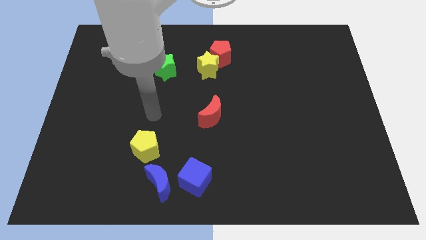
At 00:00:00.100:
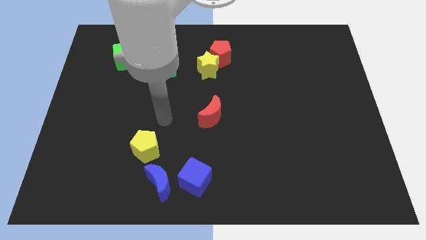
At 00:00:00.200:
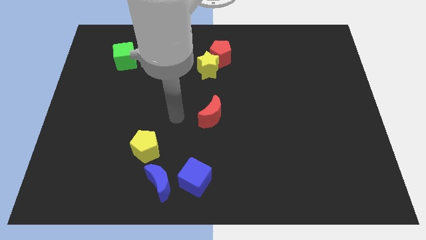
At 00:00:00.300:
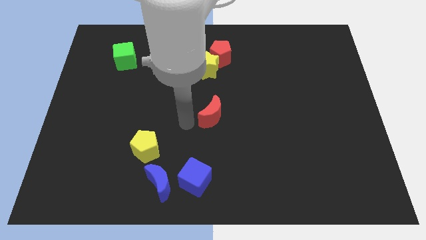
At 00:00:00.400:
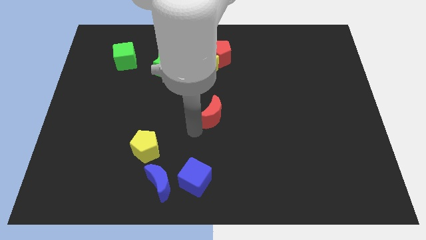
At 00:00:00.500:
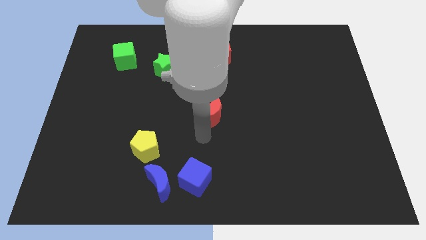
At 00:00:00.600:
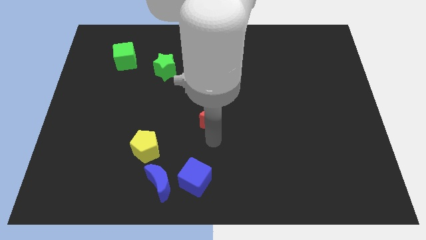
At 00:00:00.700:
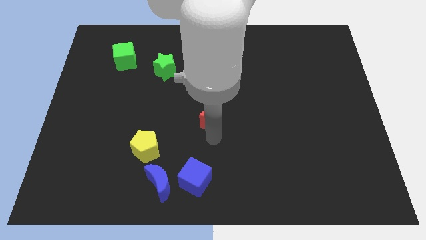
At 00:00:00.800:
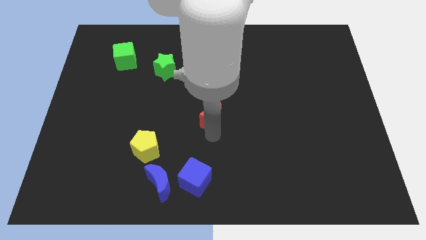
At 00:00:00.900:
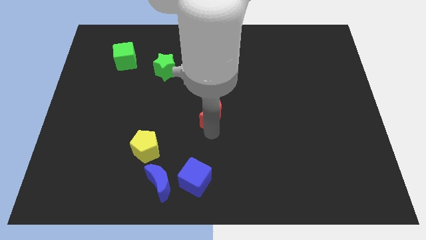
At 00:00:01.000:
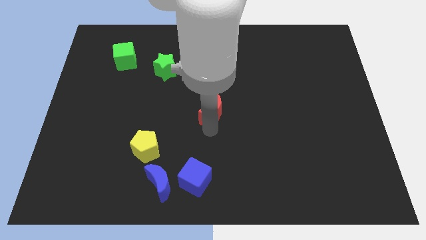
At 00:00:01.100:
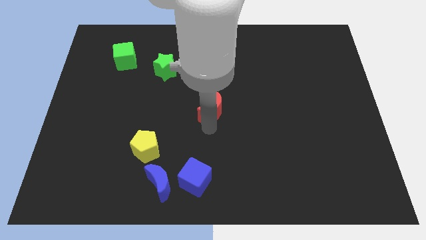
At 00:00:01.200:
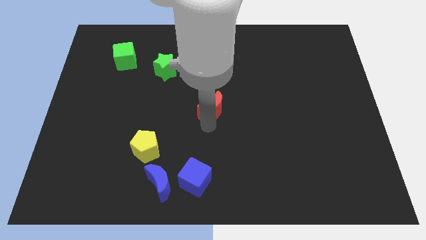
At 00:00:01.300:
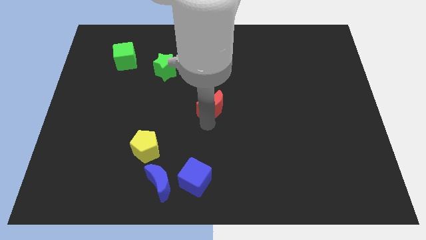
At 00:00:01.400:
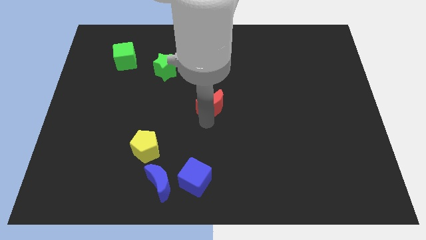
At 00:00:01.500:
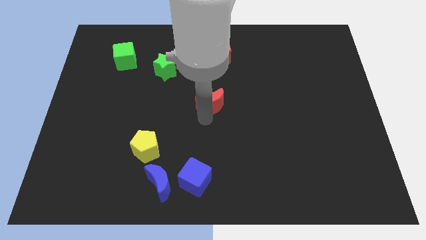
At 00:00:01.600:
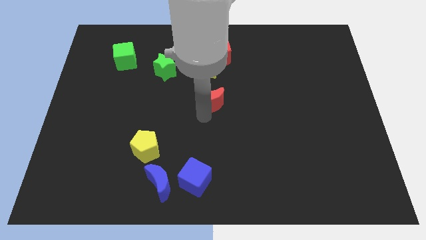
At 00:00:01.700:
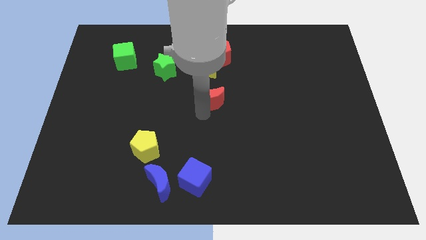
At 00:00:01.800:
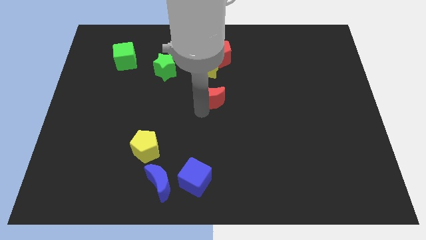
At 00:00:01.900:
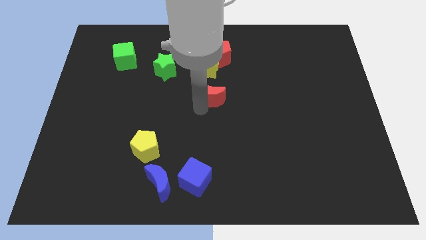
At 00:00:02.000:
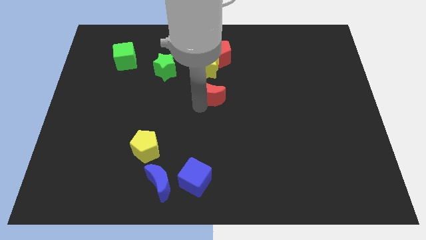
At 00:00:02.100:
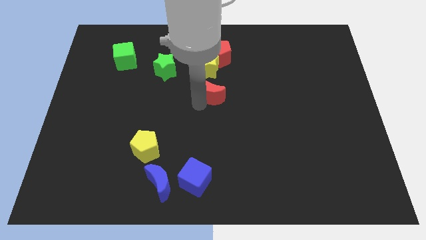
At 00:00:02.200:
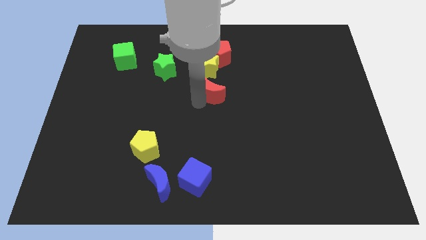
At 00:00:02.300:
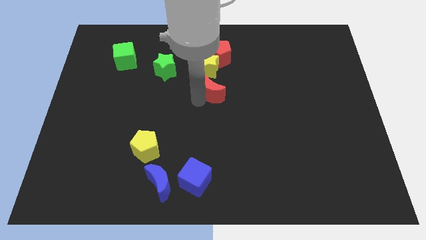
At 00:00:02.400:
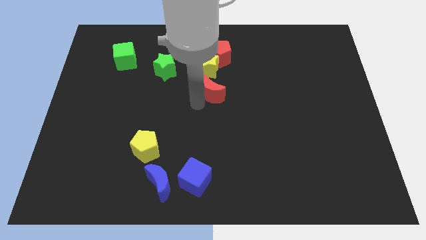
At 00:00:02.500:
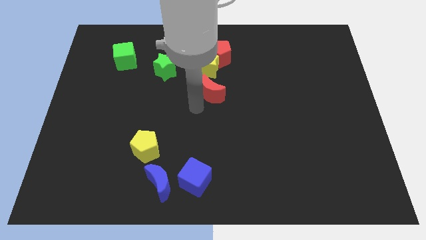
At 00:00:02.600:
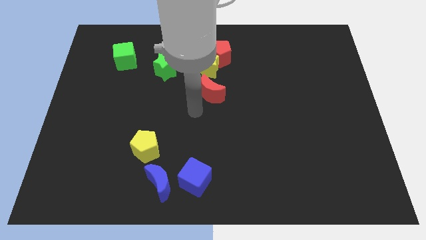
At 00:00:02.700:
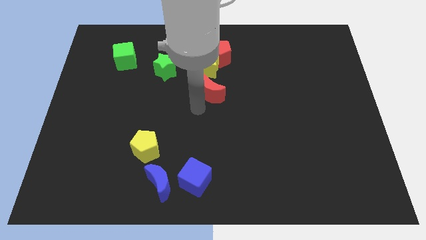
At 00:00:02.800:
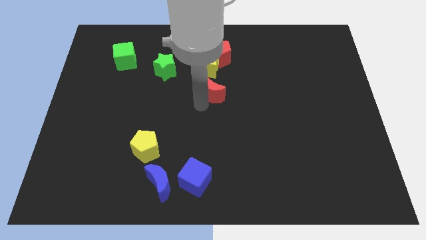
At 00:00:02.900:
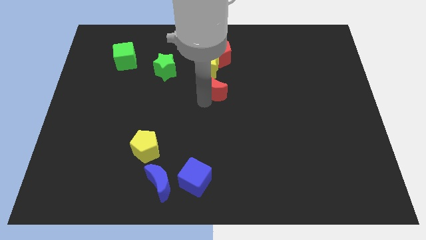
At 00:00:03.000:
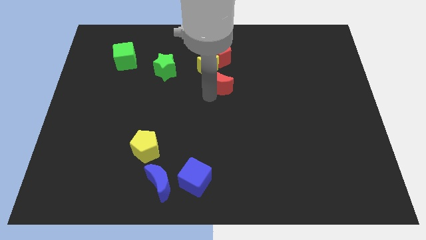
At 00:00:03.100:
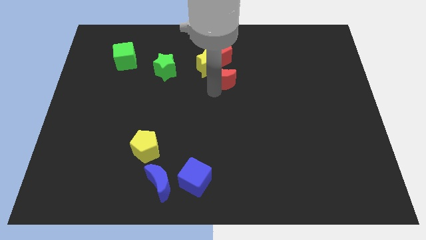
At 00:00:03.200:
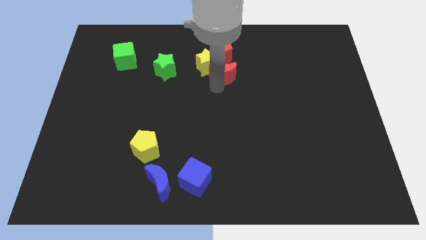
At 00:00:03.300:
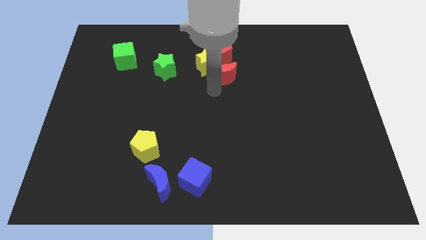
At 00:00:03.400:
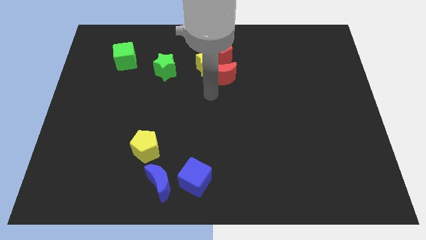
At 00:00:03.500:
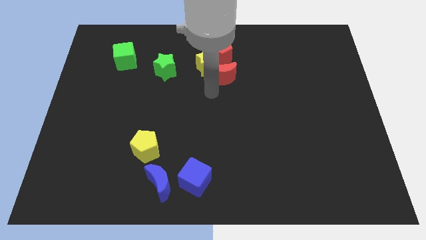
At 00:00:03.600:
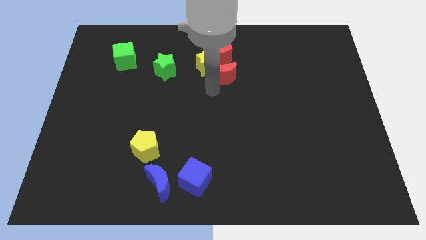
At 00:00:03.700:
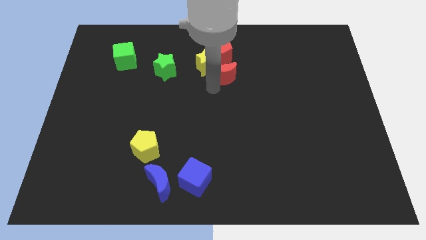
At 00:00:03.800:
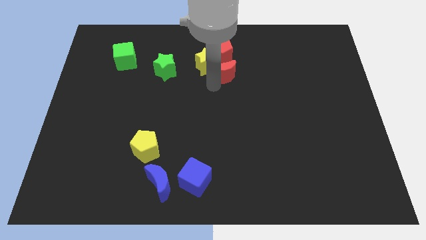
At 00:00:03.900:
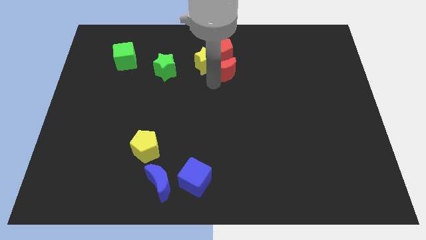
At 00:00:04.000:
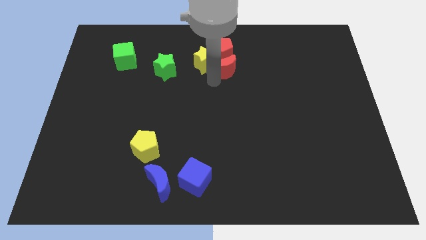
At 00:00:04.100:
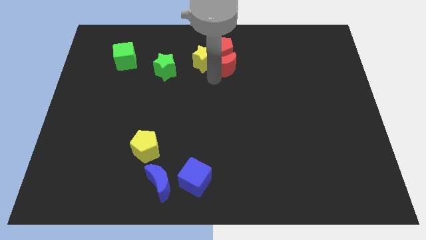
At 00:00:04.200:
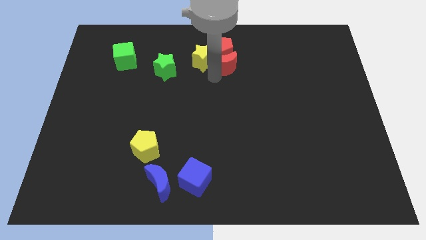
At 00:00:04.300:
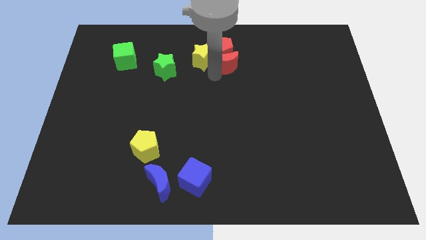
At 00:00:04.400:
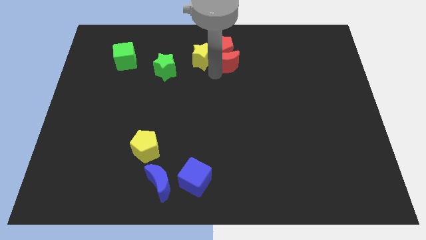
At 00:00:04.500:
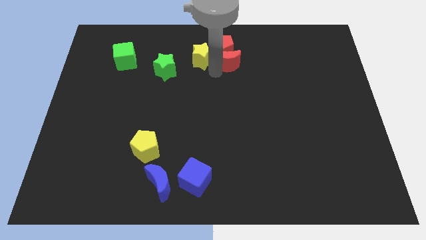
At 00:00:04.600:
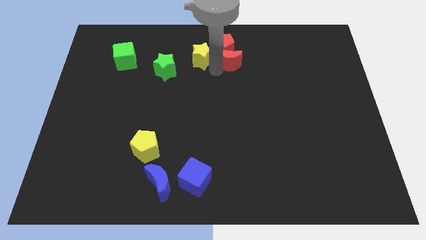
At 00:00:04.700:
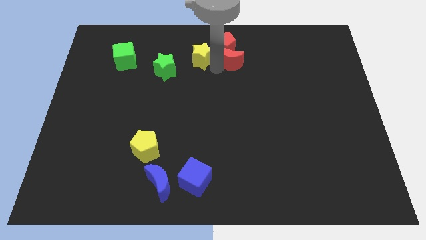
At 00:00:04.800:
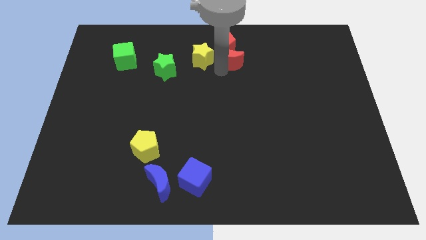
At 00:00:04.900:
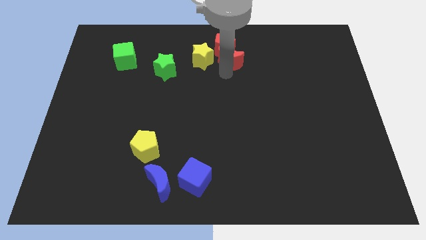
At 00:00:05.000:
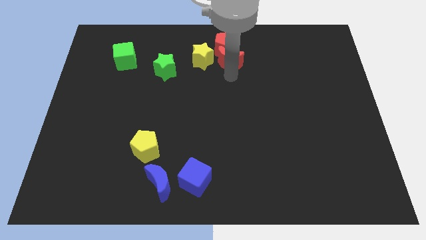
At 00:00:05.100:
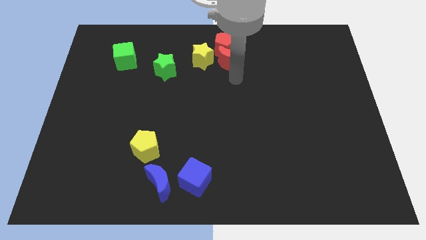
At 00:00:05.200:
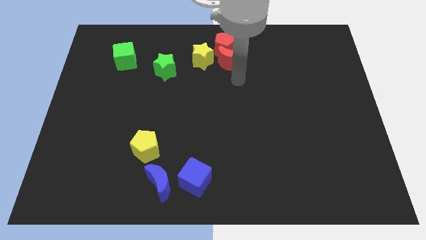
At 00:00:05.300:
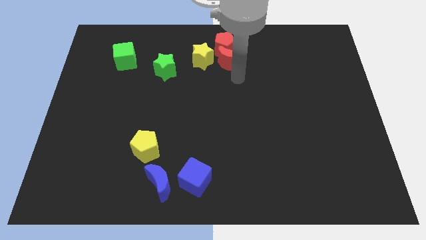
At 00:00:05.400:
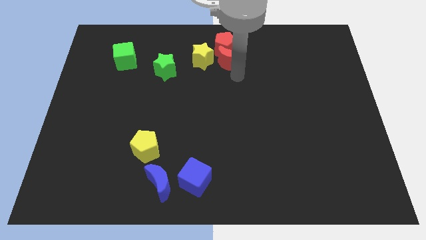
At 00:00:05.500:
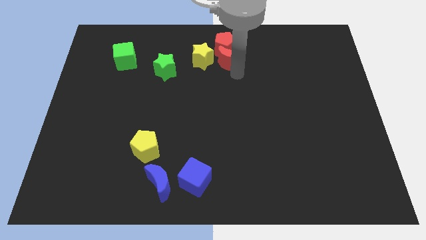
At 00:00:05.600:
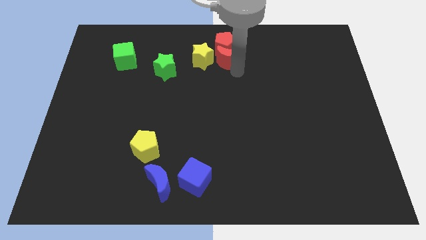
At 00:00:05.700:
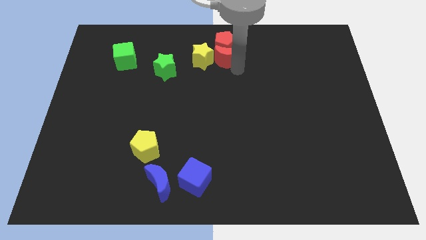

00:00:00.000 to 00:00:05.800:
slide the red moon to the top right side of the yellow star

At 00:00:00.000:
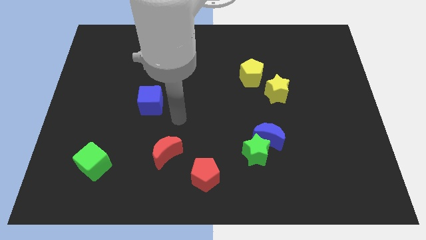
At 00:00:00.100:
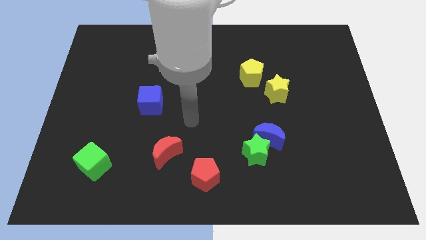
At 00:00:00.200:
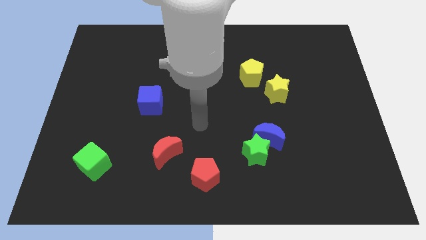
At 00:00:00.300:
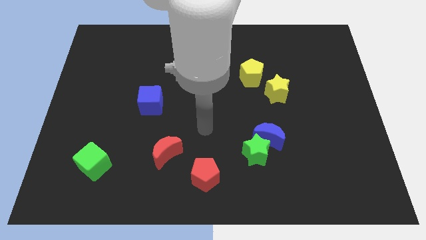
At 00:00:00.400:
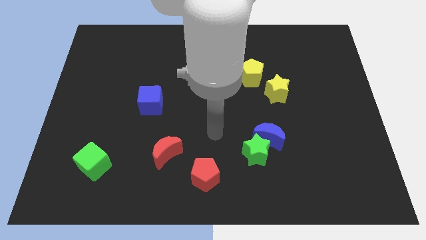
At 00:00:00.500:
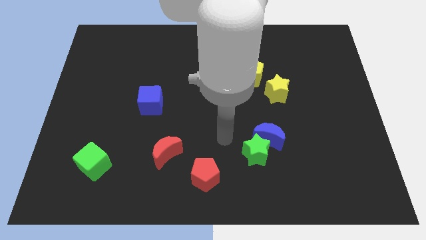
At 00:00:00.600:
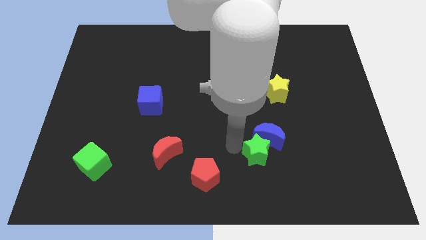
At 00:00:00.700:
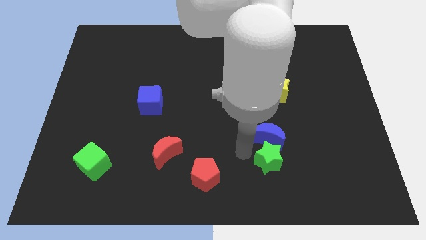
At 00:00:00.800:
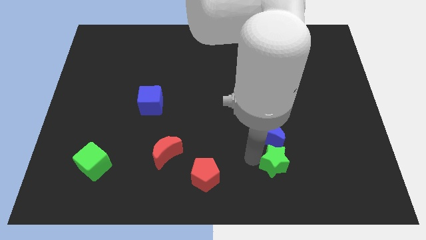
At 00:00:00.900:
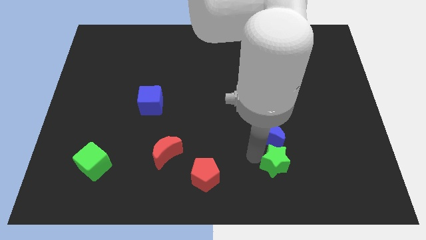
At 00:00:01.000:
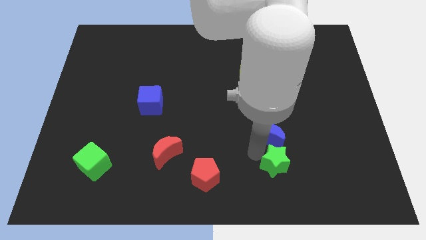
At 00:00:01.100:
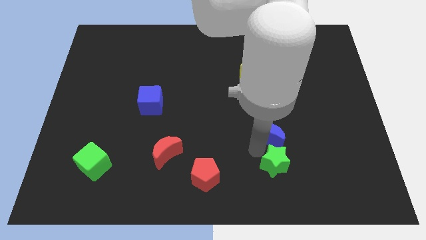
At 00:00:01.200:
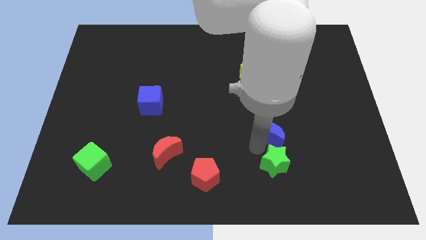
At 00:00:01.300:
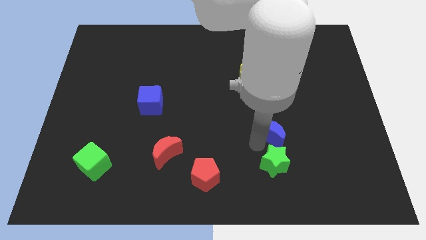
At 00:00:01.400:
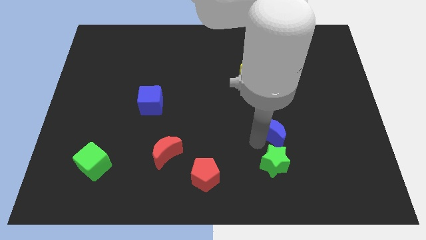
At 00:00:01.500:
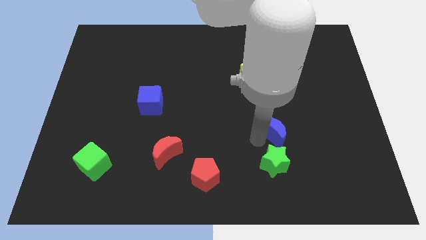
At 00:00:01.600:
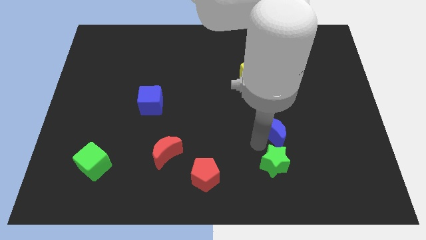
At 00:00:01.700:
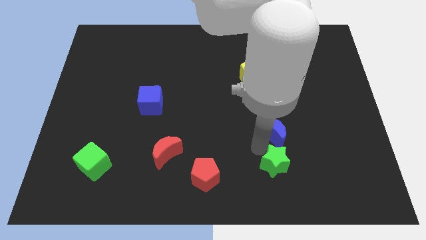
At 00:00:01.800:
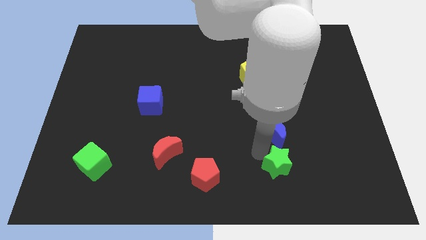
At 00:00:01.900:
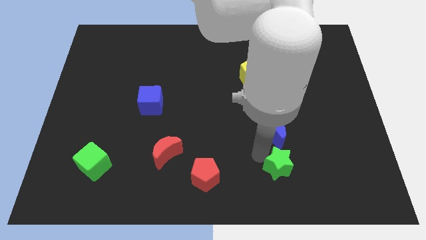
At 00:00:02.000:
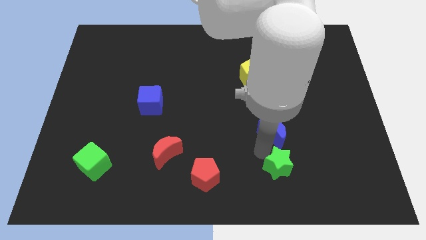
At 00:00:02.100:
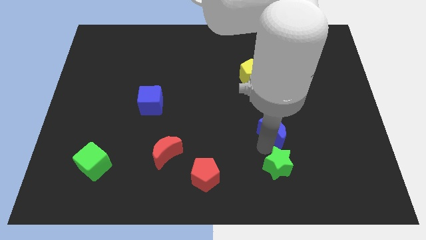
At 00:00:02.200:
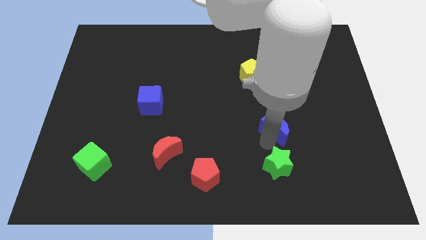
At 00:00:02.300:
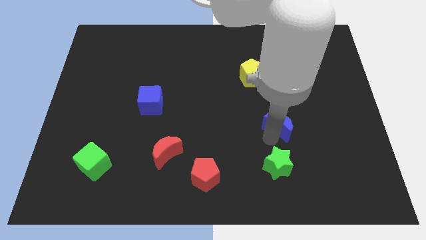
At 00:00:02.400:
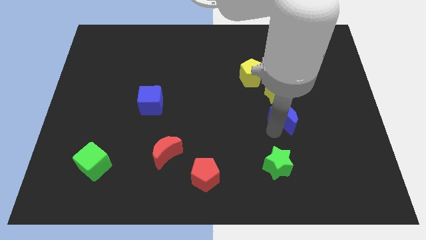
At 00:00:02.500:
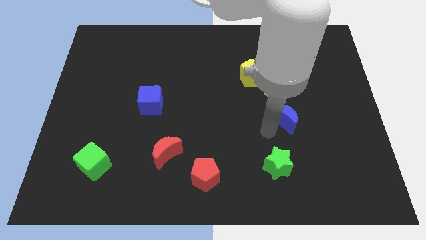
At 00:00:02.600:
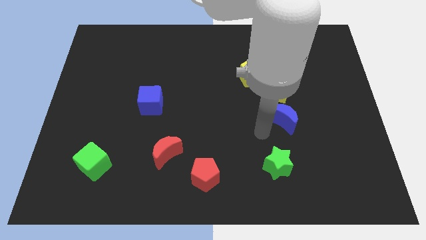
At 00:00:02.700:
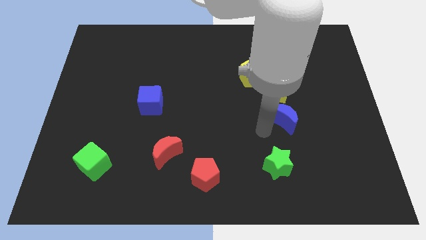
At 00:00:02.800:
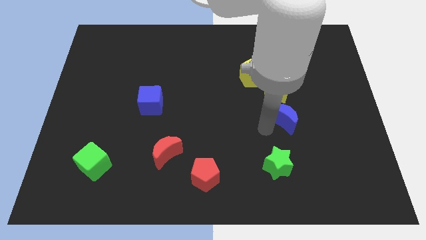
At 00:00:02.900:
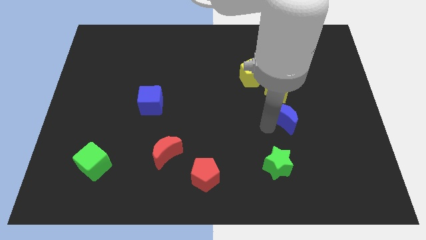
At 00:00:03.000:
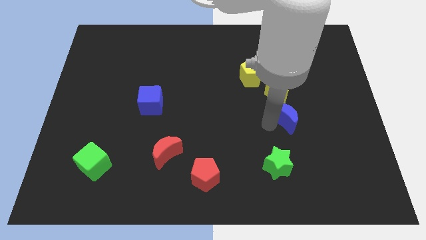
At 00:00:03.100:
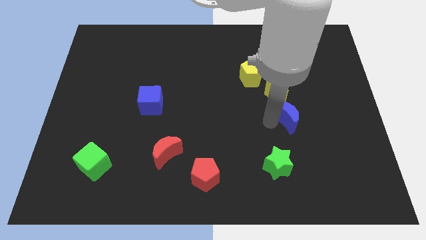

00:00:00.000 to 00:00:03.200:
slide the blue moon to the bottom right side of the yellow star
